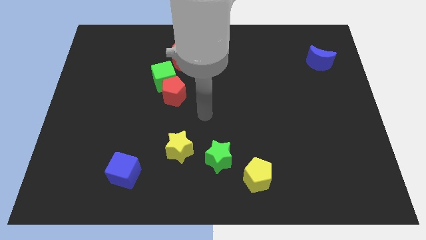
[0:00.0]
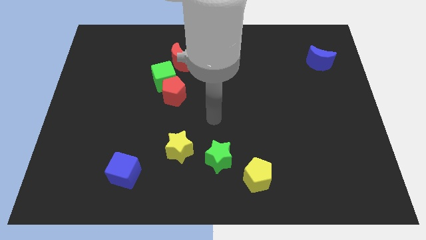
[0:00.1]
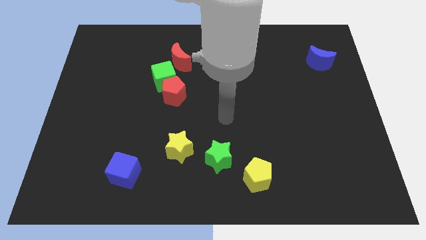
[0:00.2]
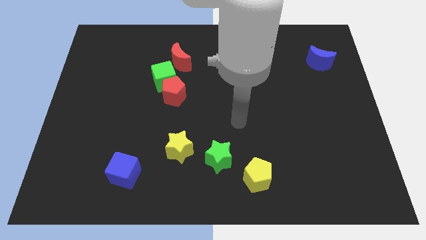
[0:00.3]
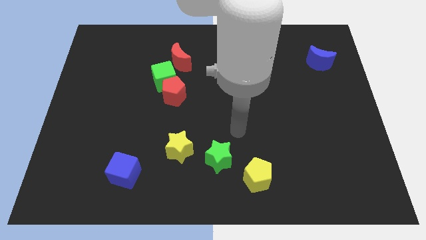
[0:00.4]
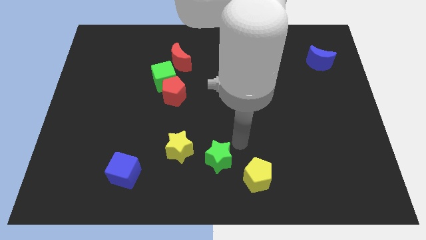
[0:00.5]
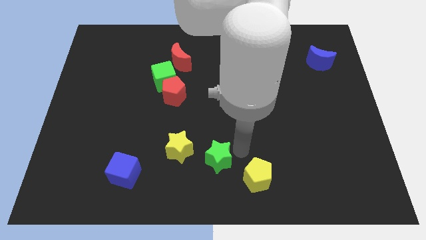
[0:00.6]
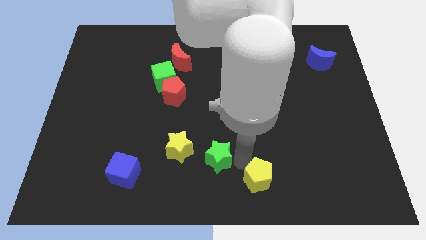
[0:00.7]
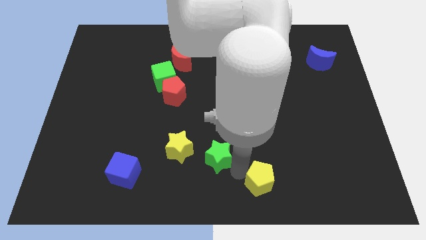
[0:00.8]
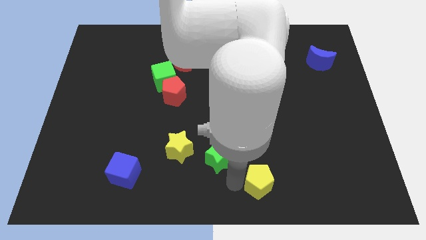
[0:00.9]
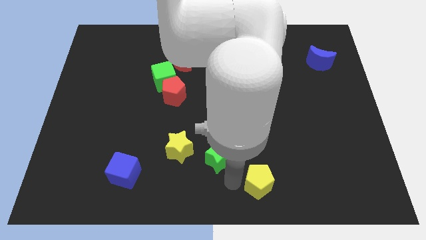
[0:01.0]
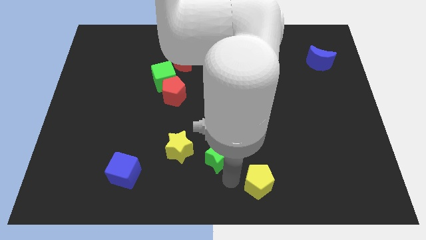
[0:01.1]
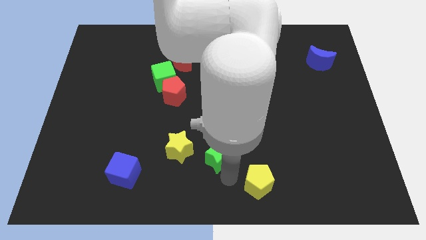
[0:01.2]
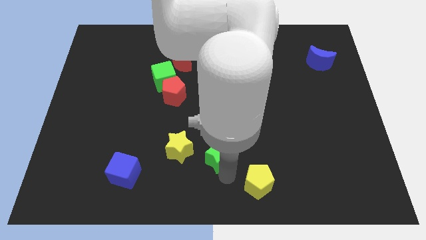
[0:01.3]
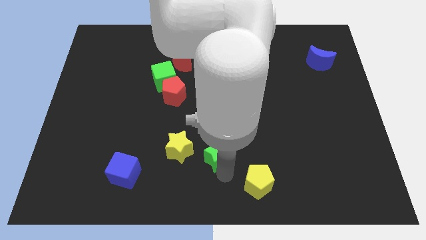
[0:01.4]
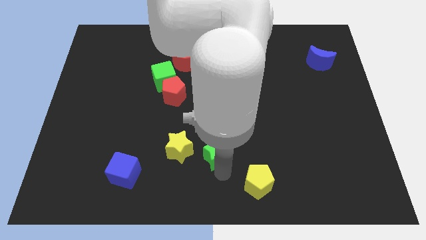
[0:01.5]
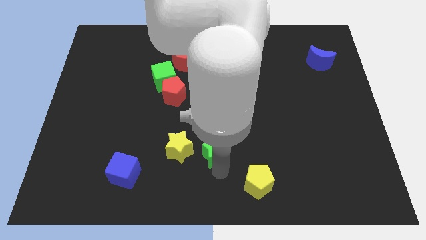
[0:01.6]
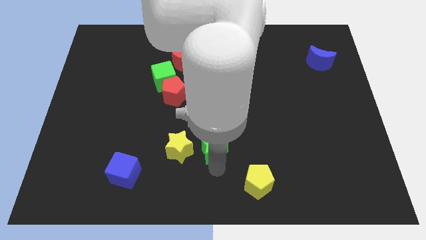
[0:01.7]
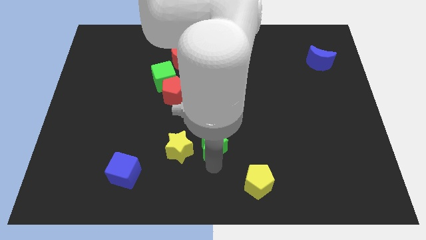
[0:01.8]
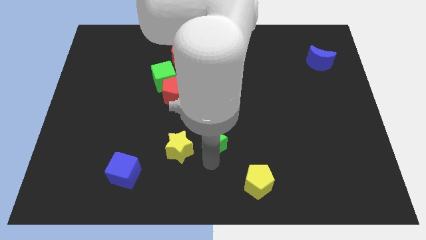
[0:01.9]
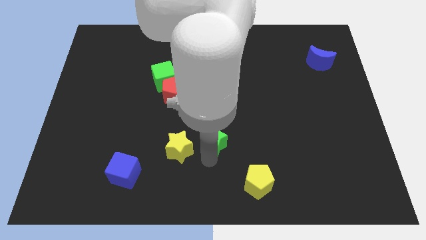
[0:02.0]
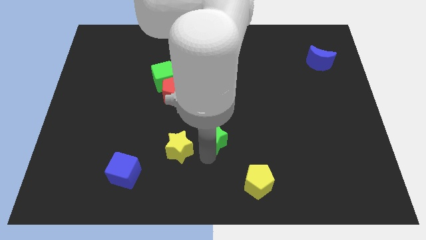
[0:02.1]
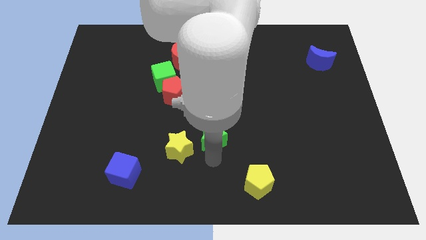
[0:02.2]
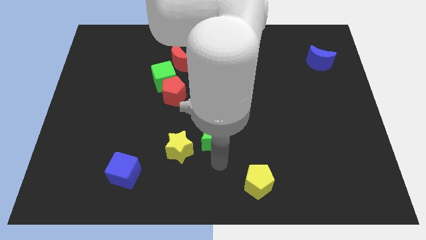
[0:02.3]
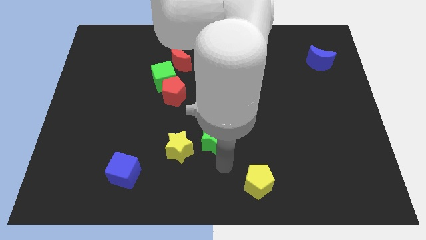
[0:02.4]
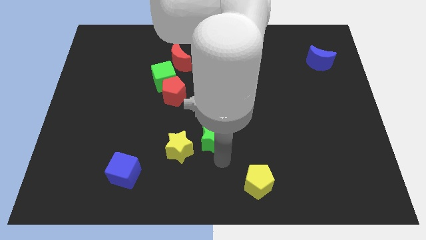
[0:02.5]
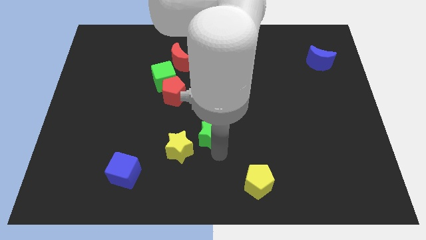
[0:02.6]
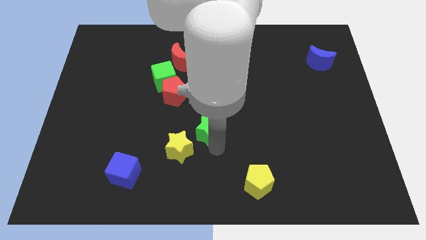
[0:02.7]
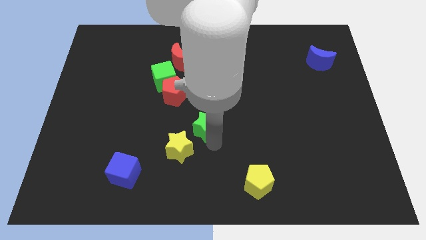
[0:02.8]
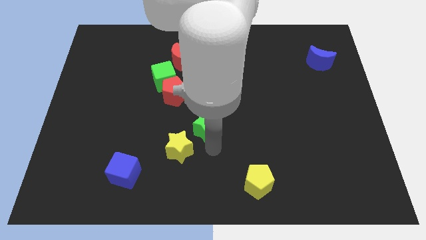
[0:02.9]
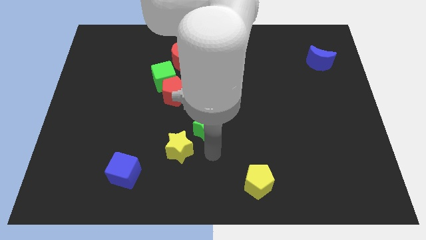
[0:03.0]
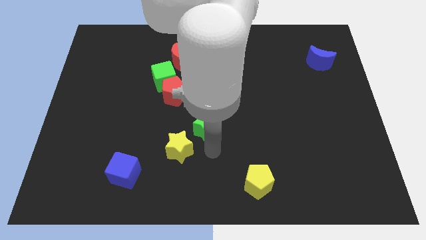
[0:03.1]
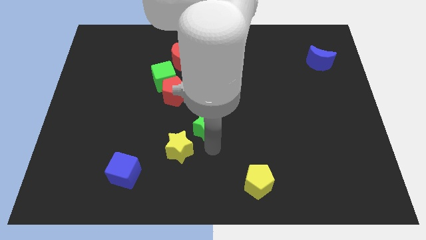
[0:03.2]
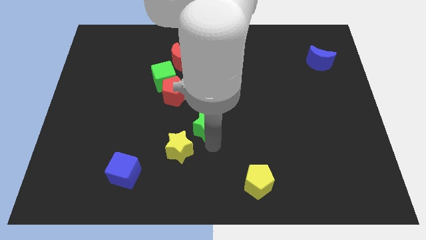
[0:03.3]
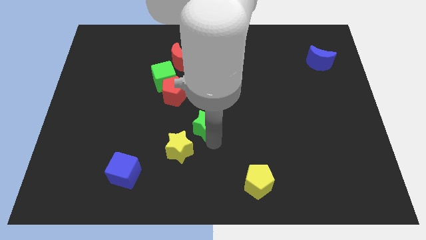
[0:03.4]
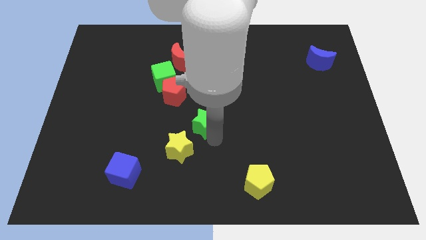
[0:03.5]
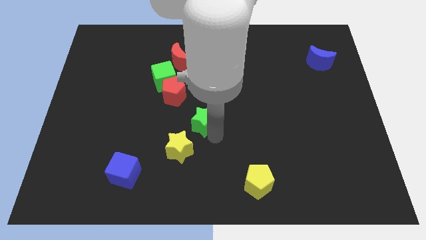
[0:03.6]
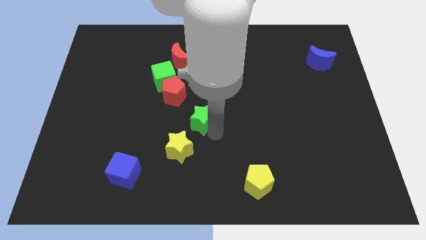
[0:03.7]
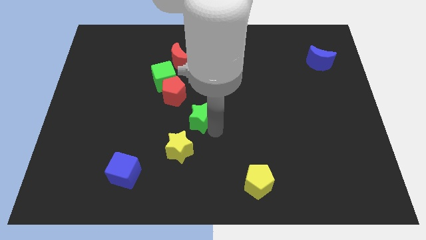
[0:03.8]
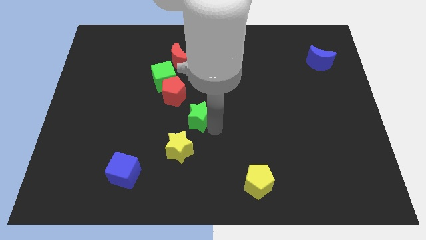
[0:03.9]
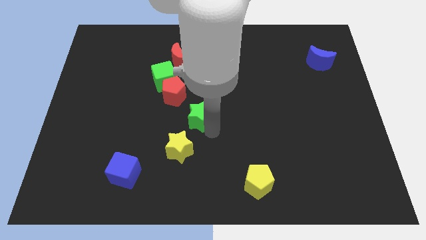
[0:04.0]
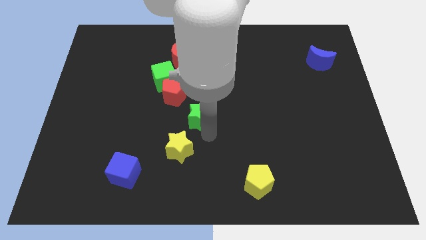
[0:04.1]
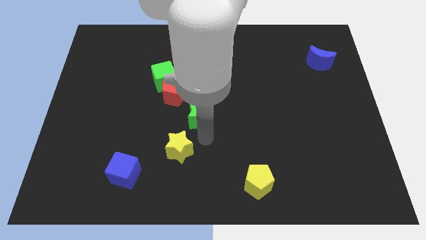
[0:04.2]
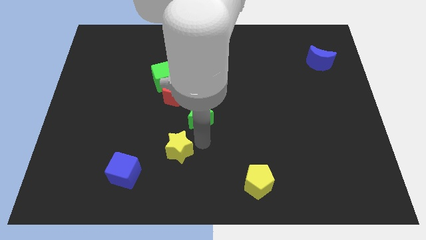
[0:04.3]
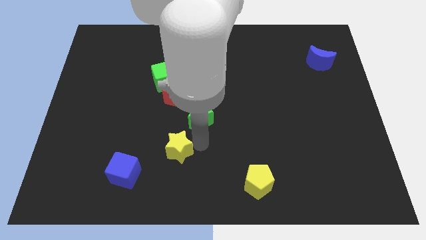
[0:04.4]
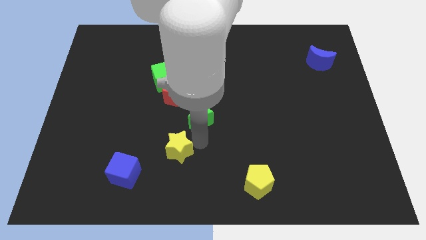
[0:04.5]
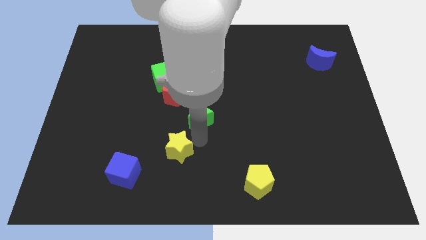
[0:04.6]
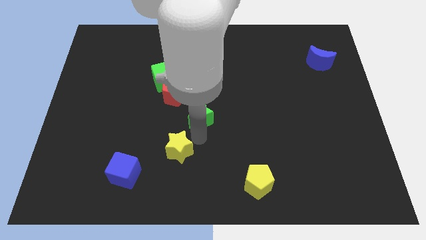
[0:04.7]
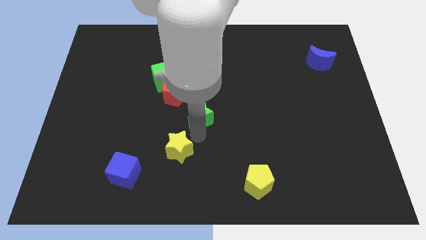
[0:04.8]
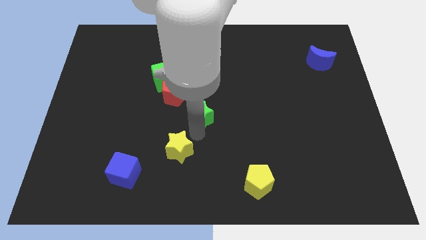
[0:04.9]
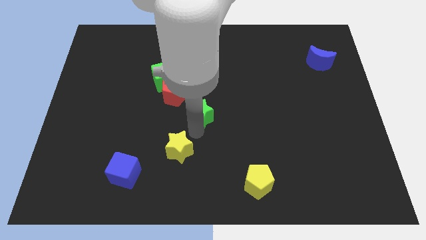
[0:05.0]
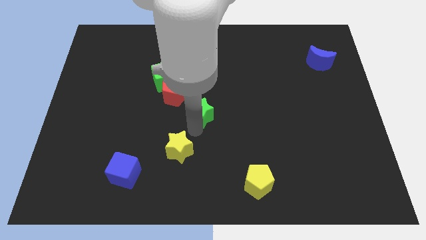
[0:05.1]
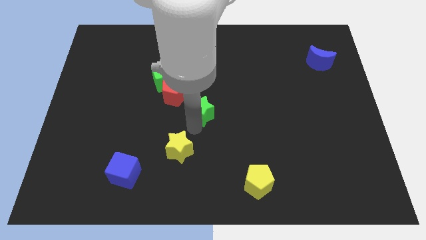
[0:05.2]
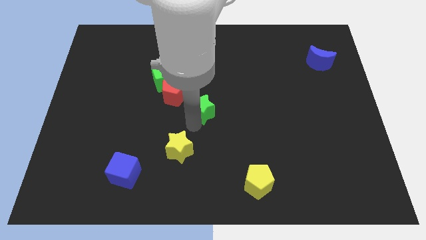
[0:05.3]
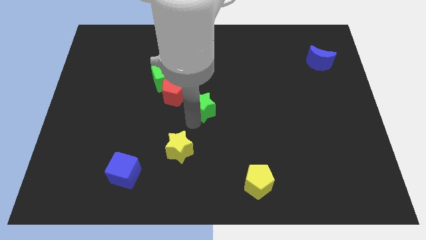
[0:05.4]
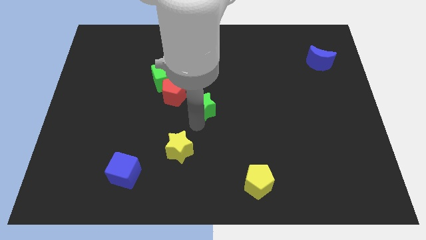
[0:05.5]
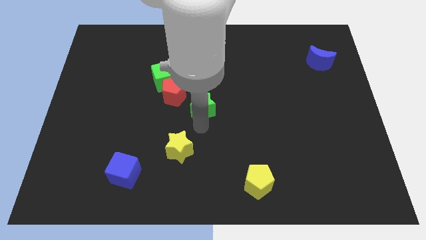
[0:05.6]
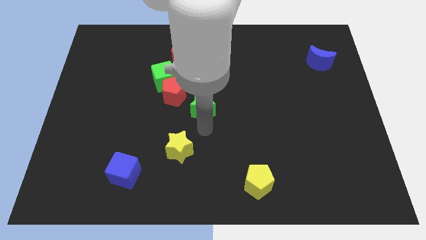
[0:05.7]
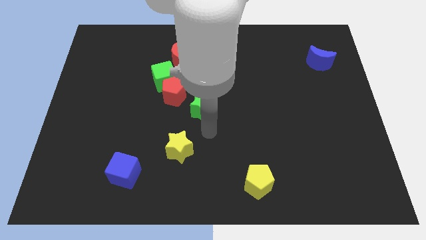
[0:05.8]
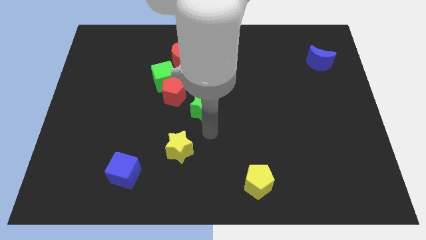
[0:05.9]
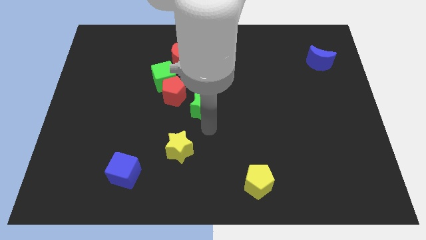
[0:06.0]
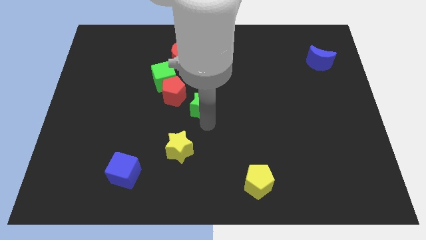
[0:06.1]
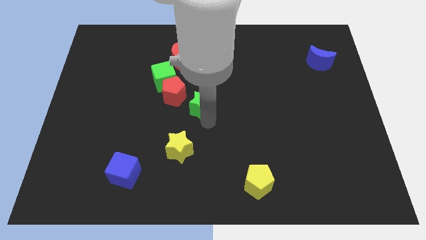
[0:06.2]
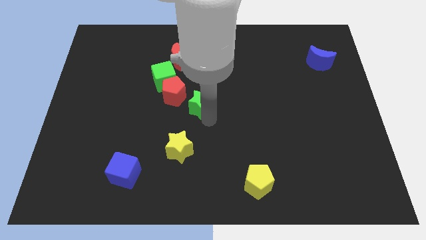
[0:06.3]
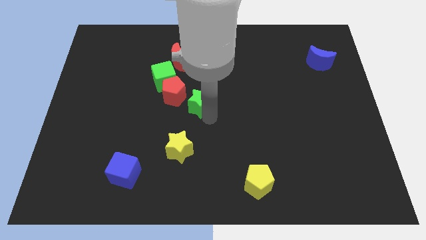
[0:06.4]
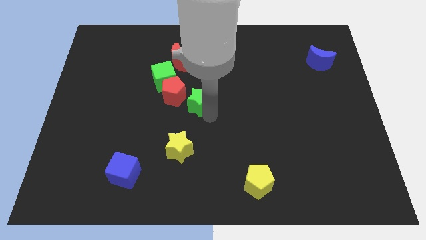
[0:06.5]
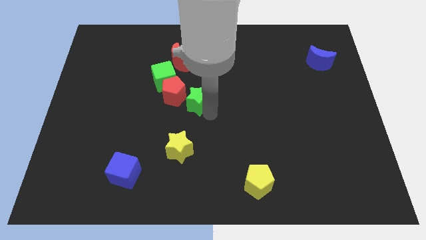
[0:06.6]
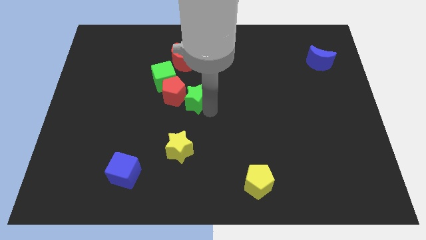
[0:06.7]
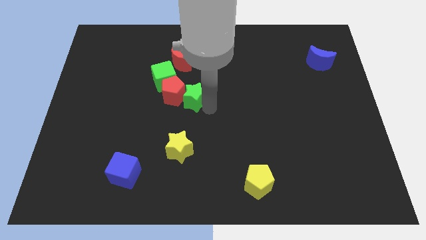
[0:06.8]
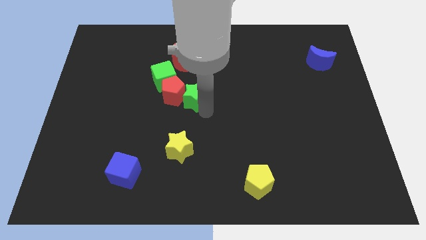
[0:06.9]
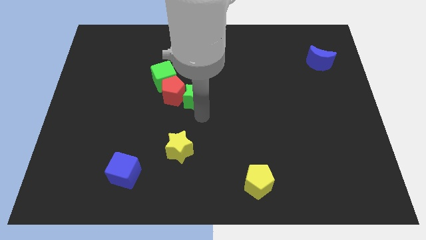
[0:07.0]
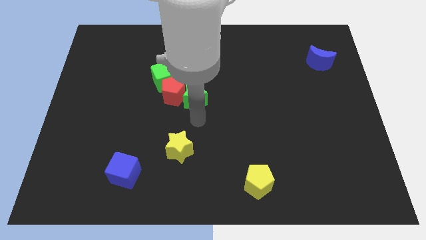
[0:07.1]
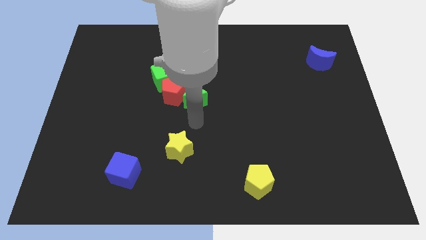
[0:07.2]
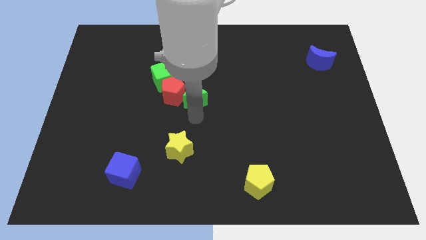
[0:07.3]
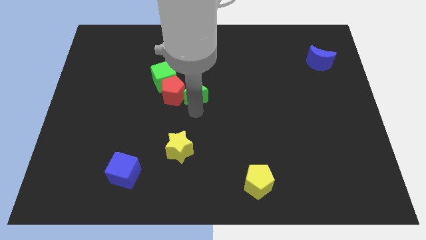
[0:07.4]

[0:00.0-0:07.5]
put the green star diagonally up and to the right of the red pentagon

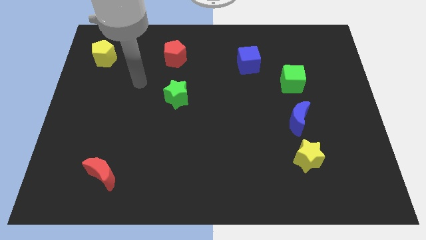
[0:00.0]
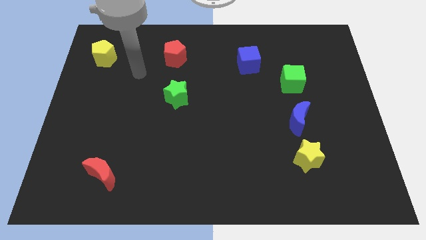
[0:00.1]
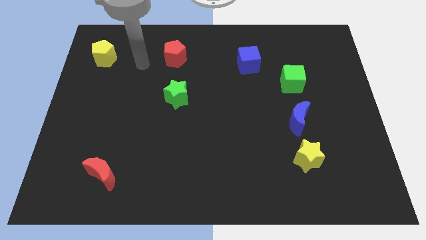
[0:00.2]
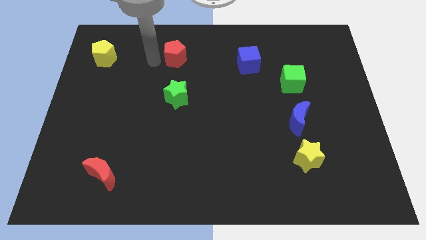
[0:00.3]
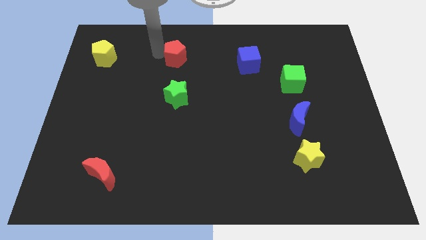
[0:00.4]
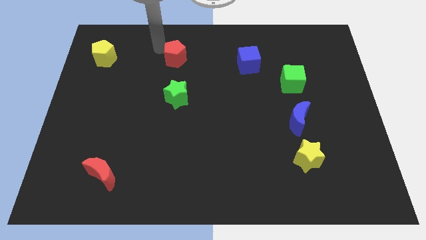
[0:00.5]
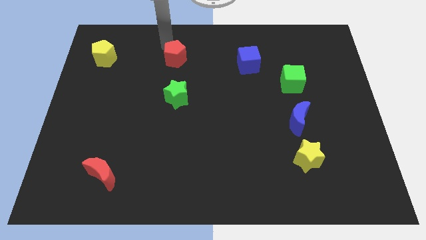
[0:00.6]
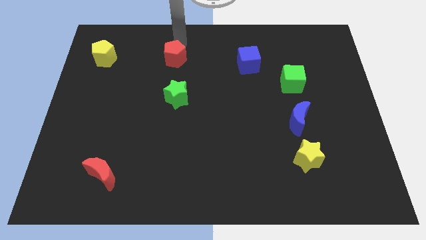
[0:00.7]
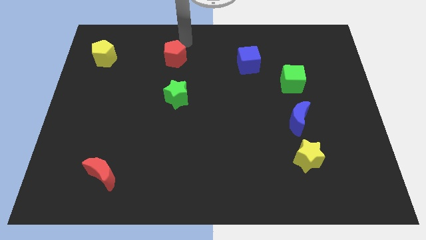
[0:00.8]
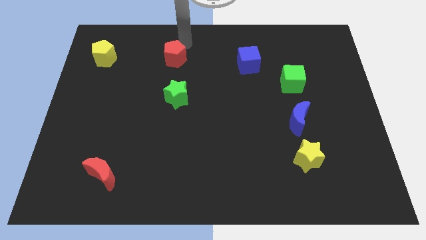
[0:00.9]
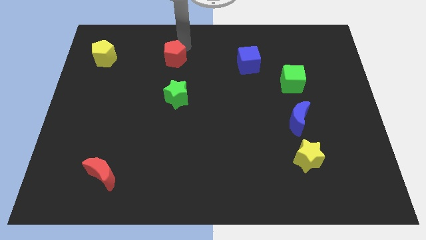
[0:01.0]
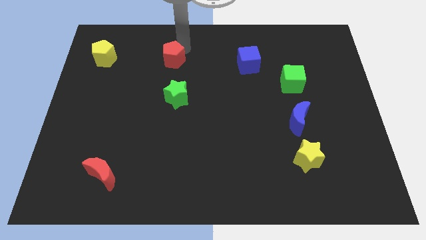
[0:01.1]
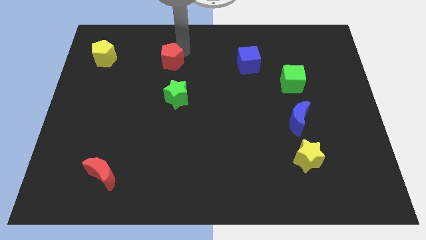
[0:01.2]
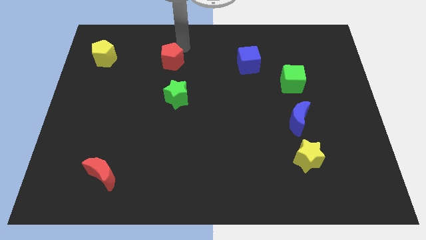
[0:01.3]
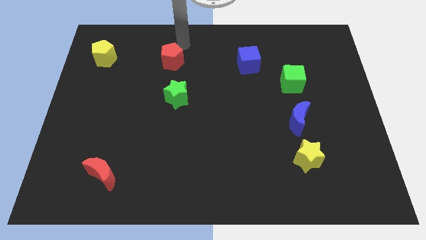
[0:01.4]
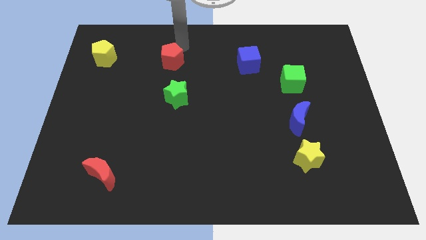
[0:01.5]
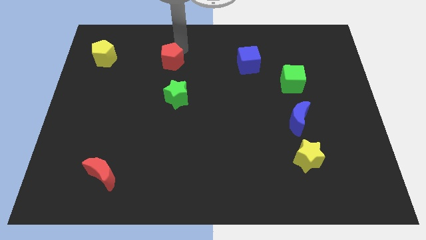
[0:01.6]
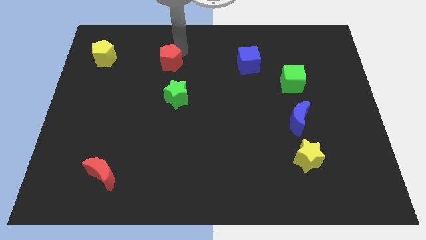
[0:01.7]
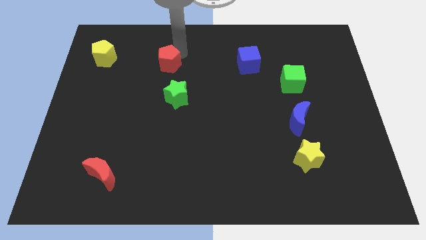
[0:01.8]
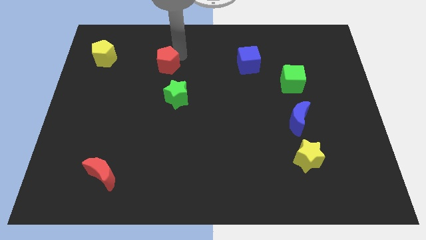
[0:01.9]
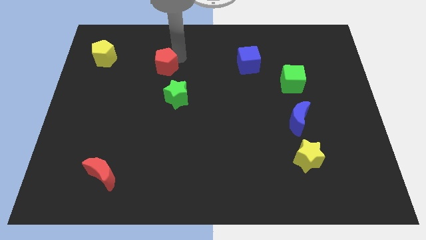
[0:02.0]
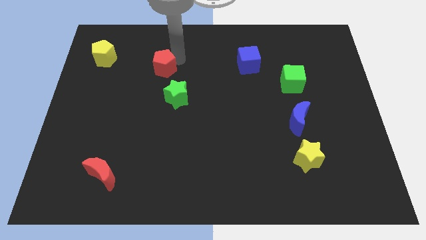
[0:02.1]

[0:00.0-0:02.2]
push the red pentagon to the top left side of the green star
